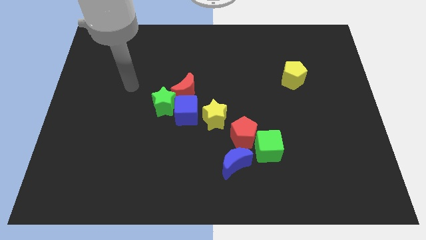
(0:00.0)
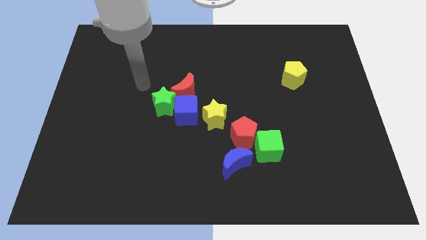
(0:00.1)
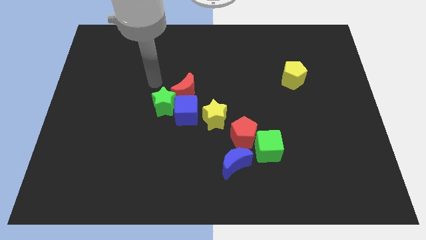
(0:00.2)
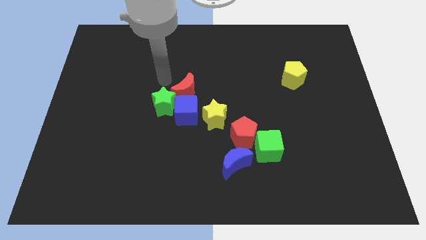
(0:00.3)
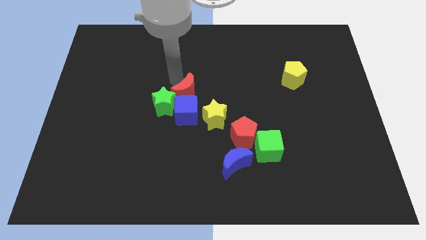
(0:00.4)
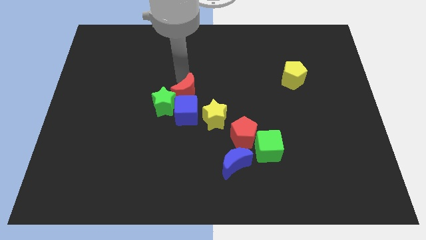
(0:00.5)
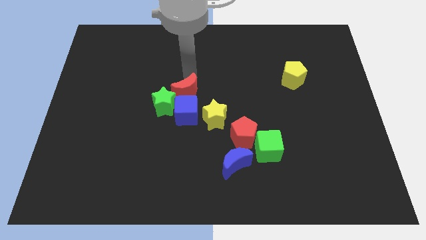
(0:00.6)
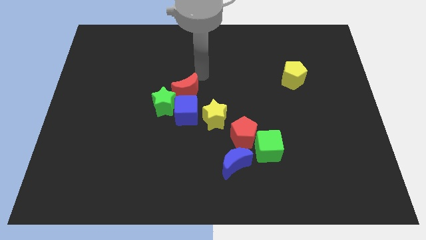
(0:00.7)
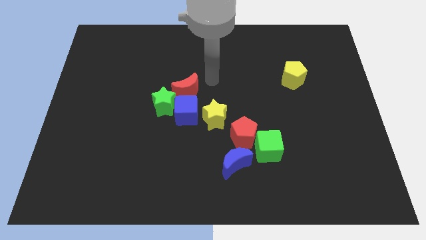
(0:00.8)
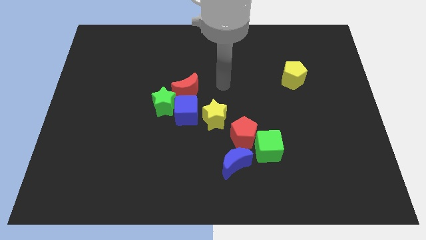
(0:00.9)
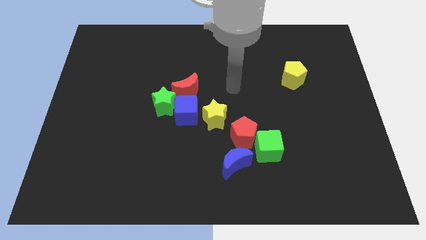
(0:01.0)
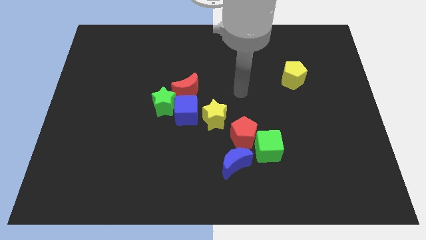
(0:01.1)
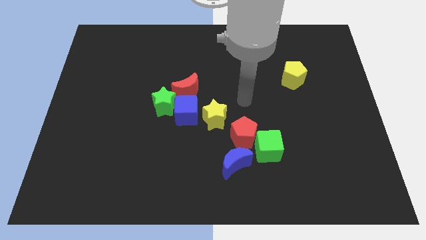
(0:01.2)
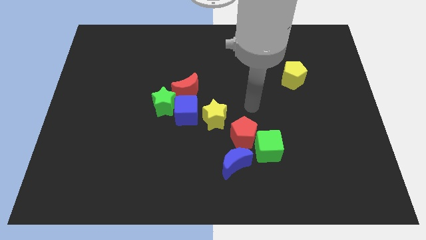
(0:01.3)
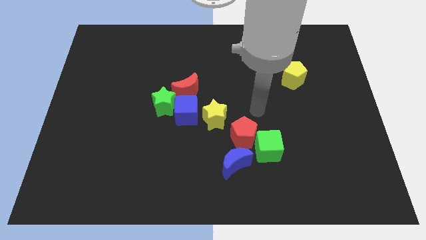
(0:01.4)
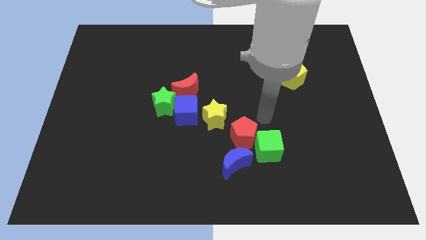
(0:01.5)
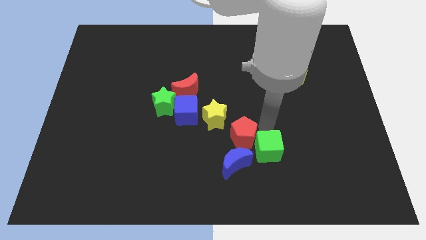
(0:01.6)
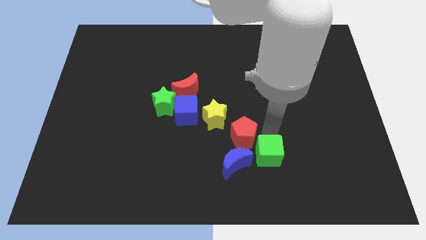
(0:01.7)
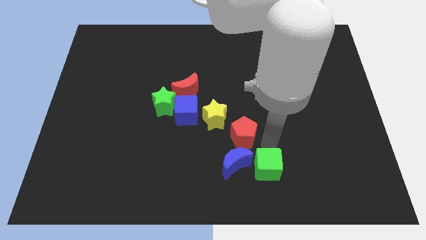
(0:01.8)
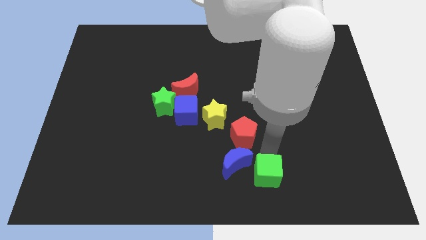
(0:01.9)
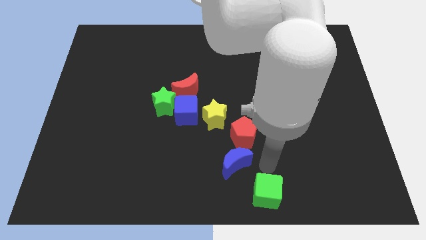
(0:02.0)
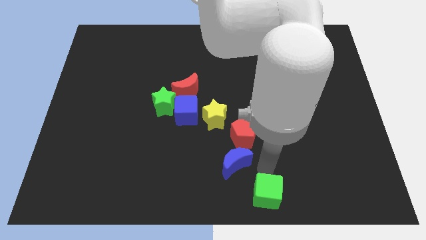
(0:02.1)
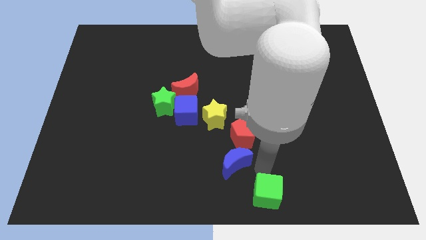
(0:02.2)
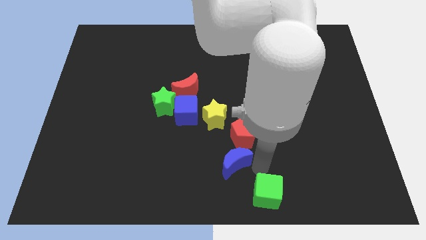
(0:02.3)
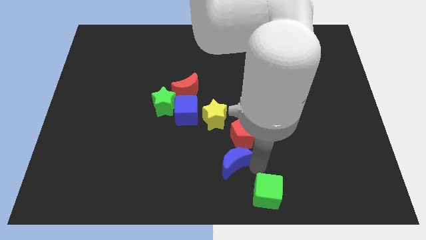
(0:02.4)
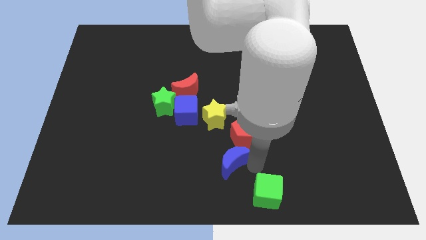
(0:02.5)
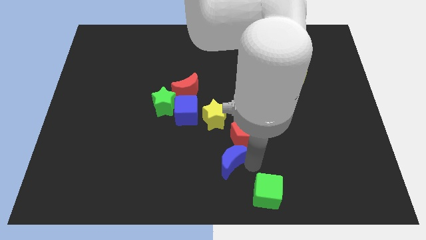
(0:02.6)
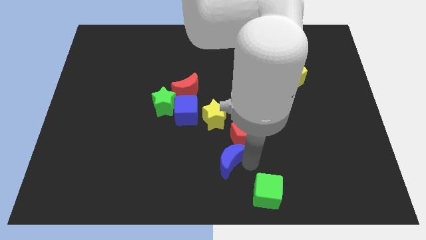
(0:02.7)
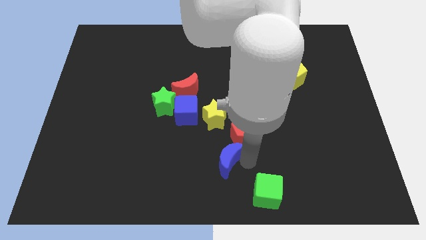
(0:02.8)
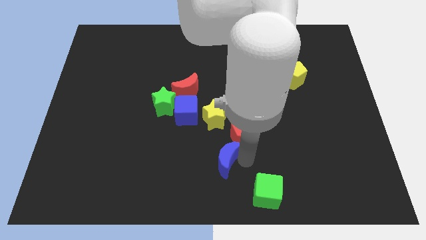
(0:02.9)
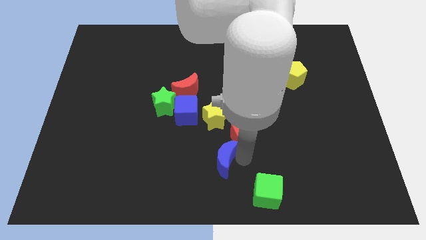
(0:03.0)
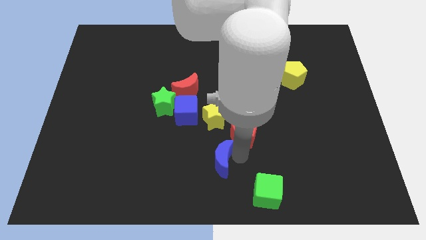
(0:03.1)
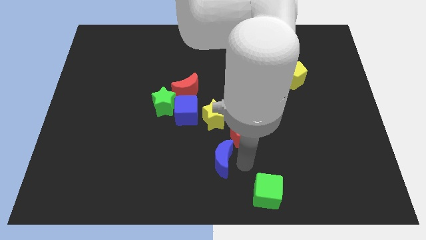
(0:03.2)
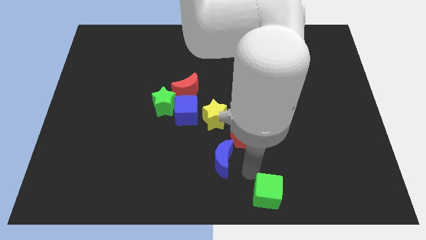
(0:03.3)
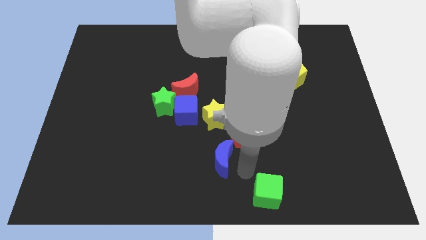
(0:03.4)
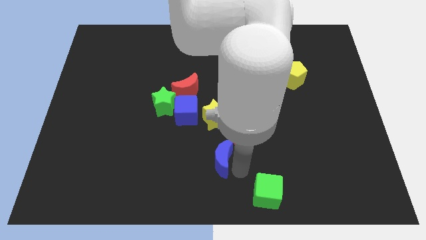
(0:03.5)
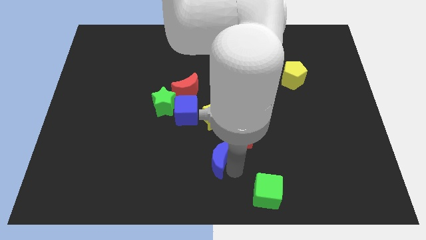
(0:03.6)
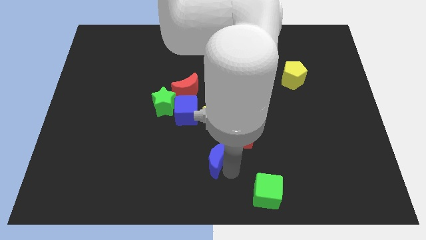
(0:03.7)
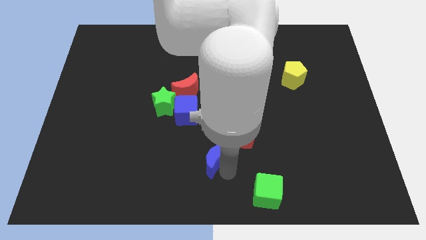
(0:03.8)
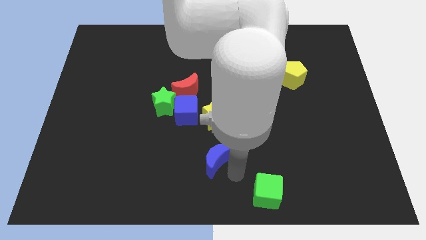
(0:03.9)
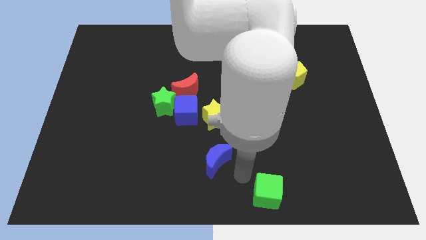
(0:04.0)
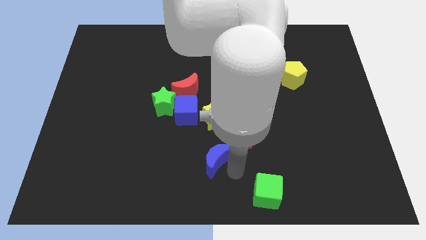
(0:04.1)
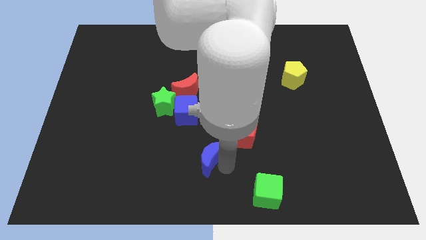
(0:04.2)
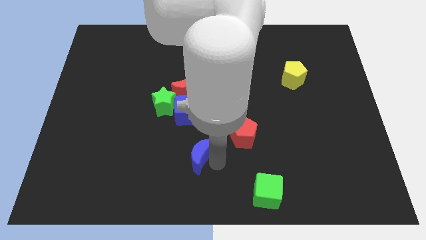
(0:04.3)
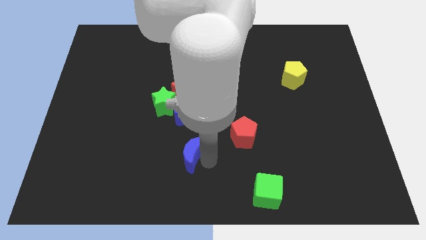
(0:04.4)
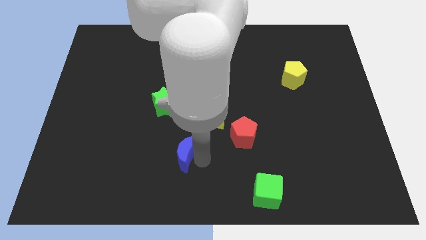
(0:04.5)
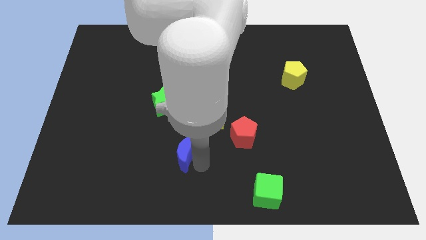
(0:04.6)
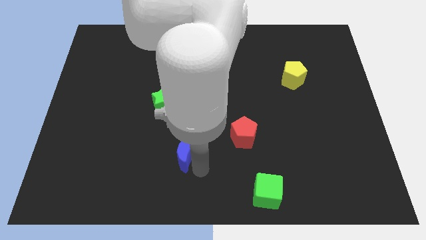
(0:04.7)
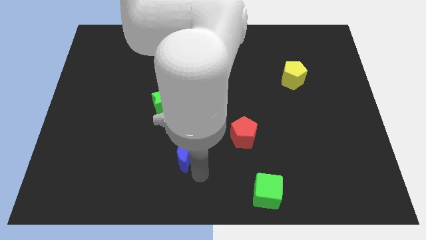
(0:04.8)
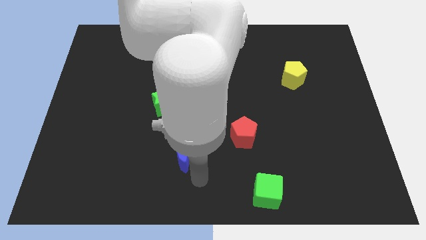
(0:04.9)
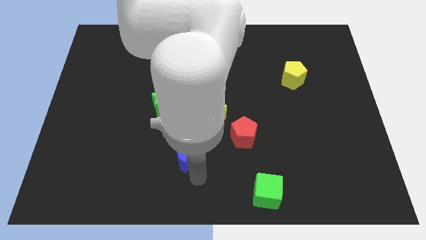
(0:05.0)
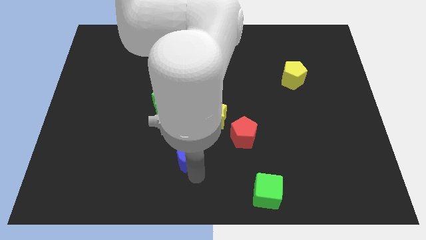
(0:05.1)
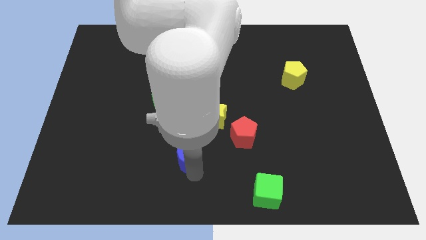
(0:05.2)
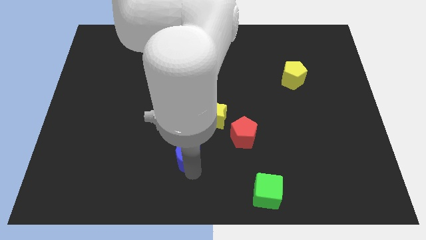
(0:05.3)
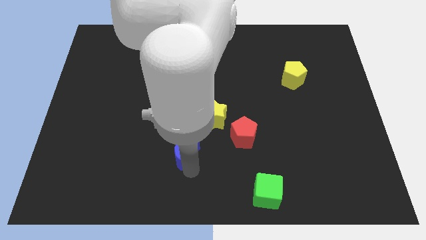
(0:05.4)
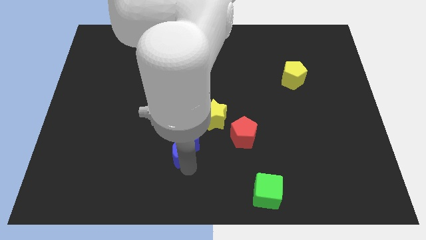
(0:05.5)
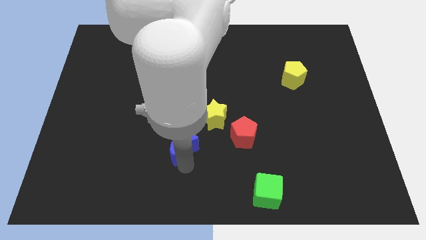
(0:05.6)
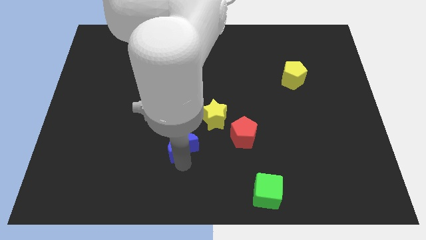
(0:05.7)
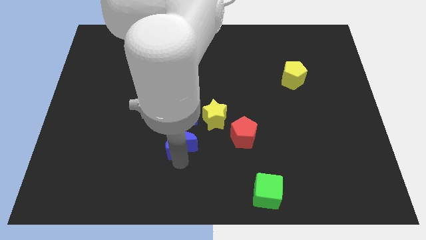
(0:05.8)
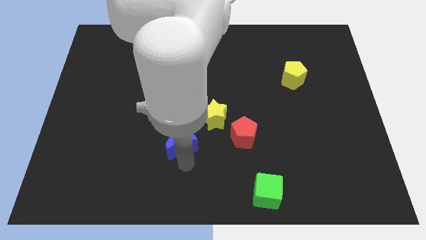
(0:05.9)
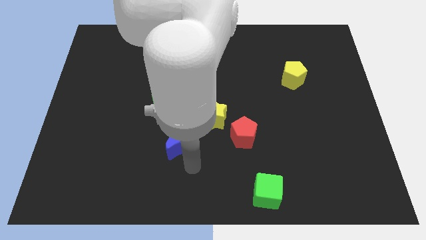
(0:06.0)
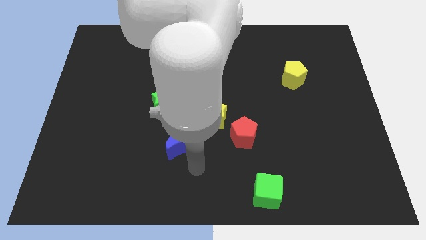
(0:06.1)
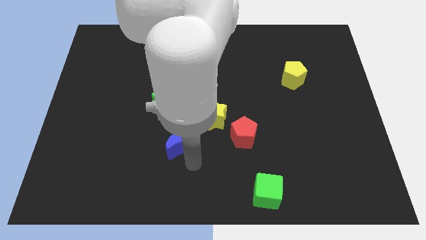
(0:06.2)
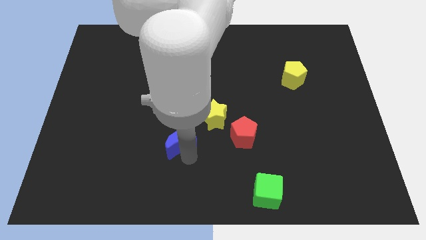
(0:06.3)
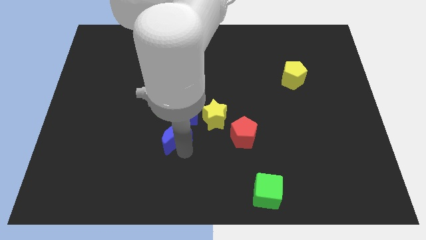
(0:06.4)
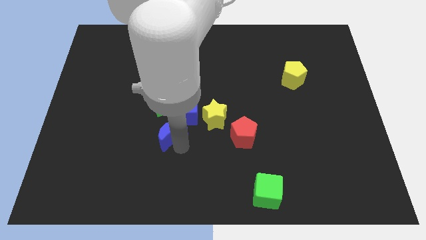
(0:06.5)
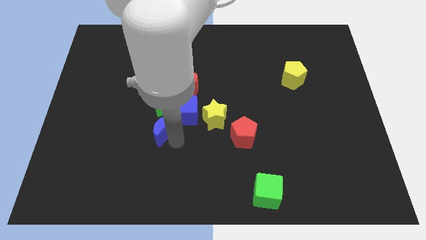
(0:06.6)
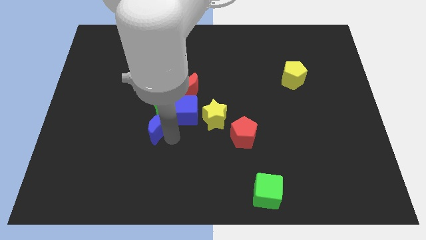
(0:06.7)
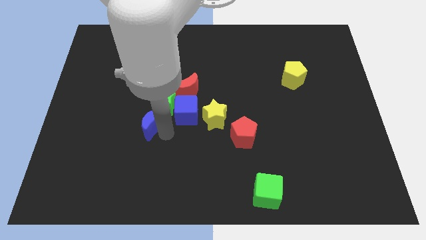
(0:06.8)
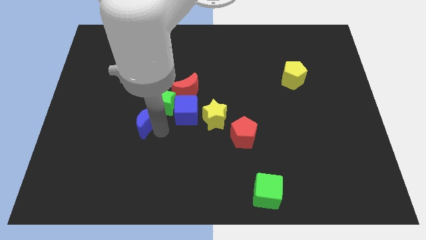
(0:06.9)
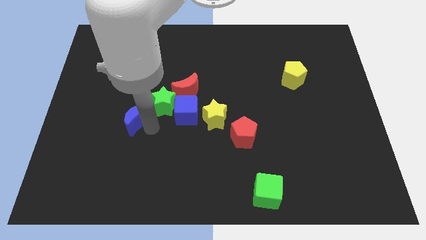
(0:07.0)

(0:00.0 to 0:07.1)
slide the blue moon upwards and left diagonally

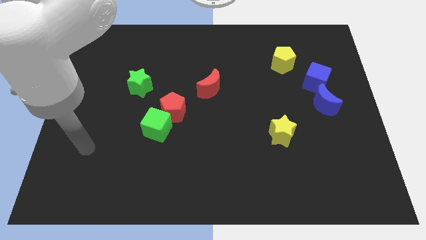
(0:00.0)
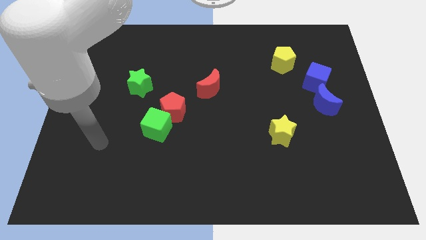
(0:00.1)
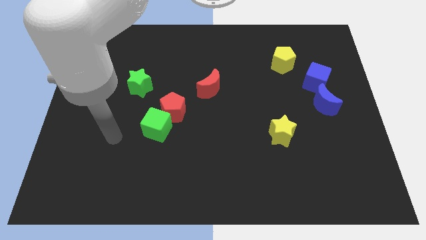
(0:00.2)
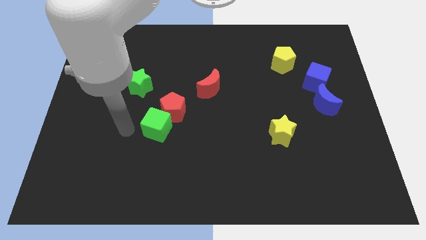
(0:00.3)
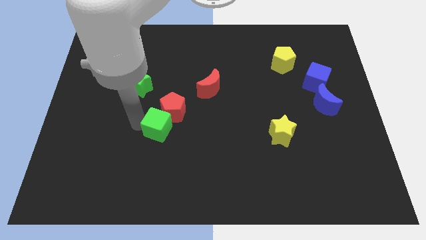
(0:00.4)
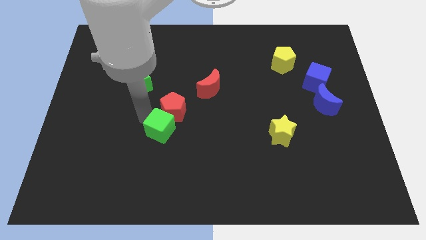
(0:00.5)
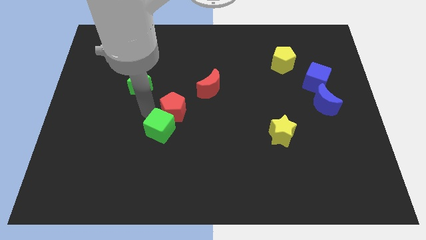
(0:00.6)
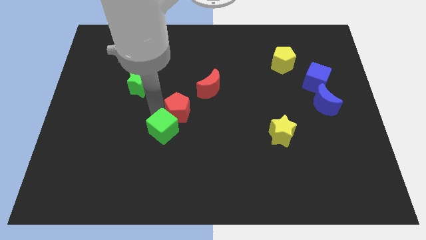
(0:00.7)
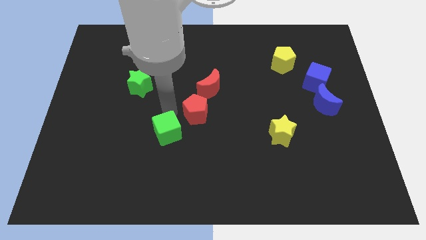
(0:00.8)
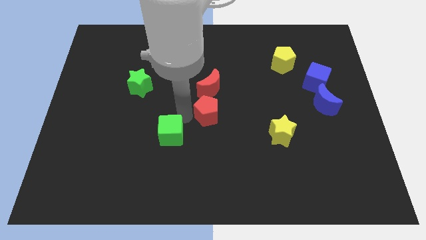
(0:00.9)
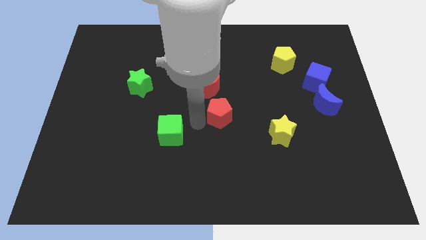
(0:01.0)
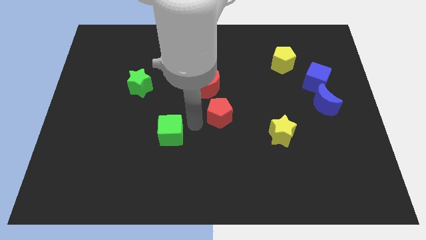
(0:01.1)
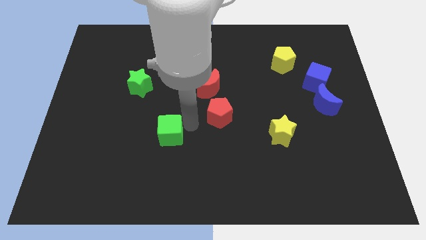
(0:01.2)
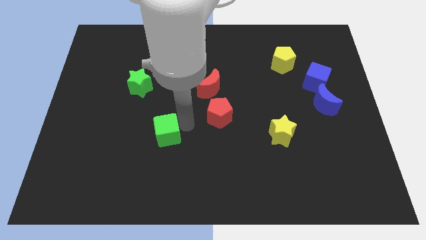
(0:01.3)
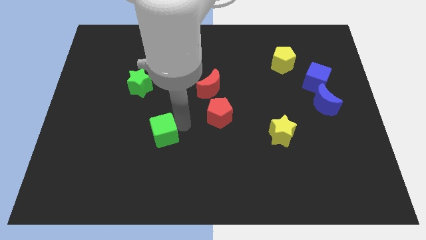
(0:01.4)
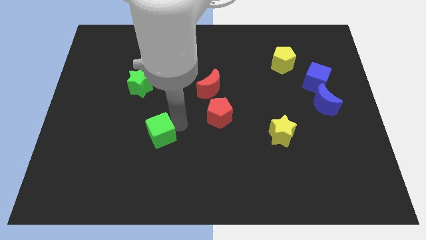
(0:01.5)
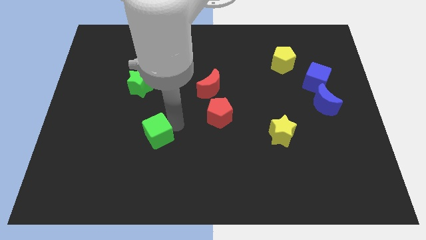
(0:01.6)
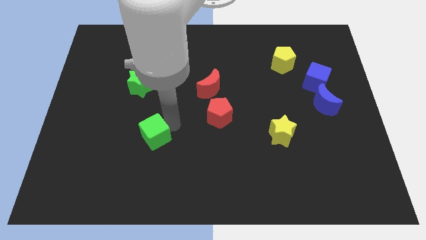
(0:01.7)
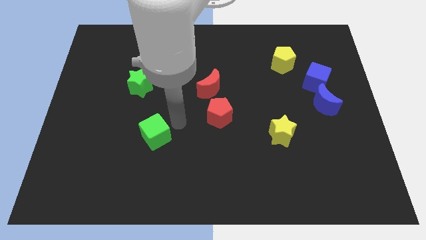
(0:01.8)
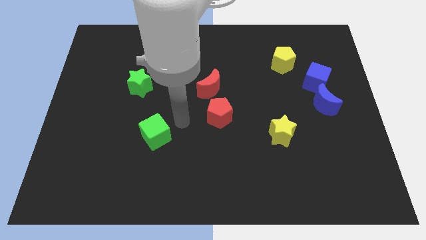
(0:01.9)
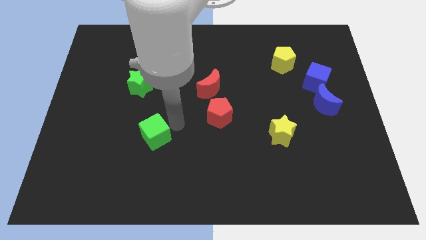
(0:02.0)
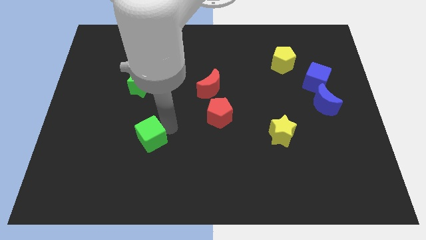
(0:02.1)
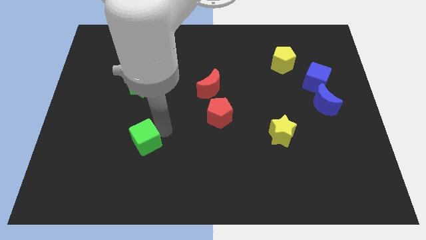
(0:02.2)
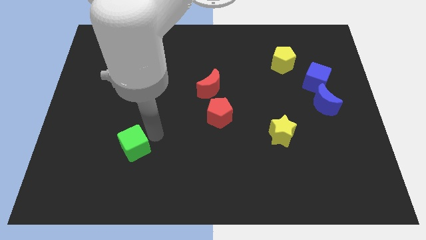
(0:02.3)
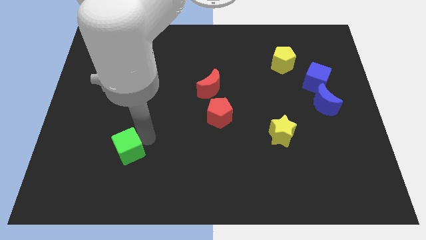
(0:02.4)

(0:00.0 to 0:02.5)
slightly push the green cube diagonally down and to the left
